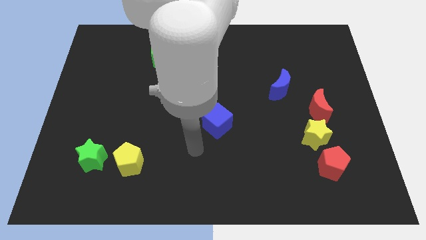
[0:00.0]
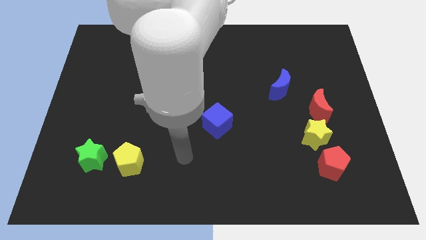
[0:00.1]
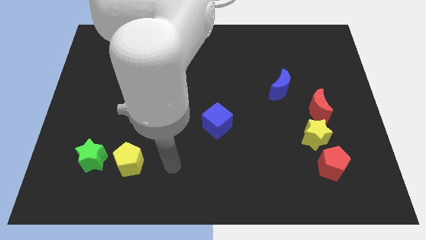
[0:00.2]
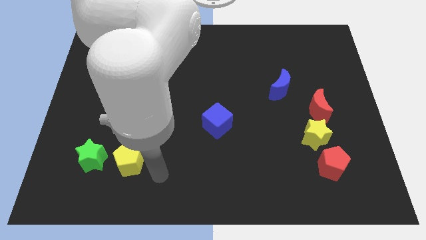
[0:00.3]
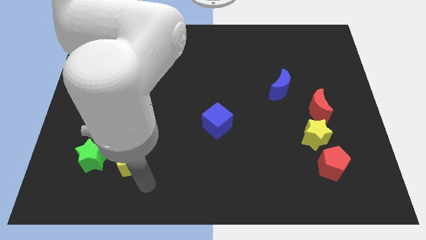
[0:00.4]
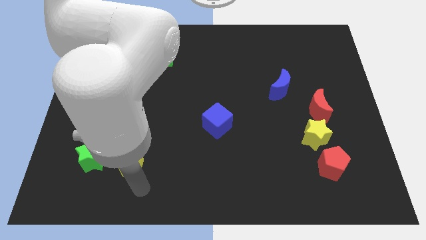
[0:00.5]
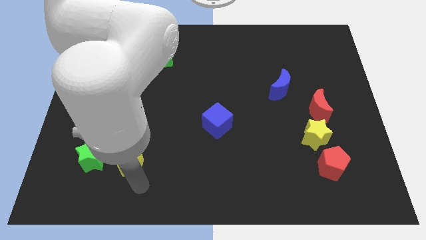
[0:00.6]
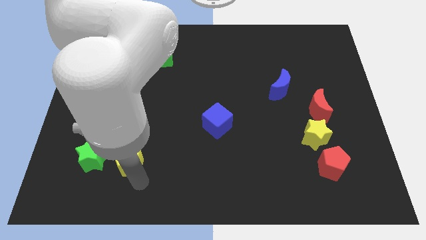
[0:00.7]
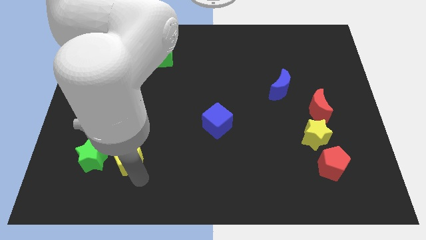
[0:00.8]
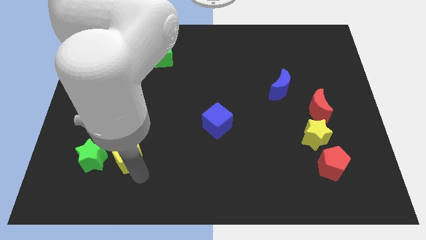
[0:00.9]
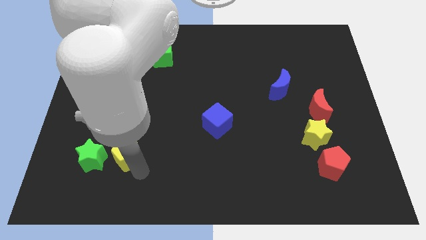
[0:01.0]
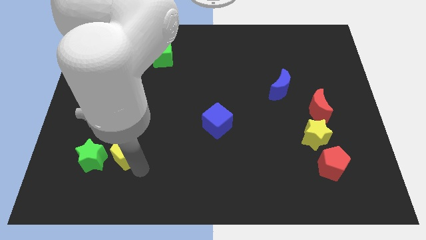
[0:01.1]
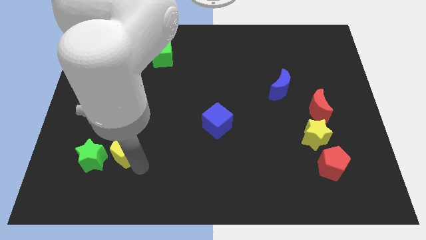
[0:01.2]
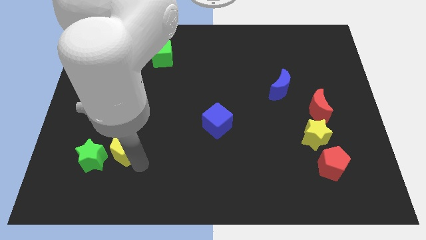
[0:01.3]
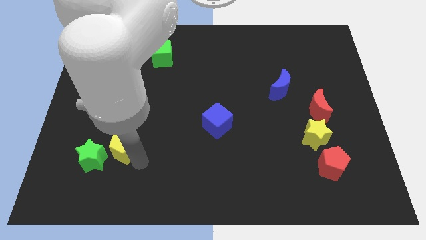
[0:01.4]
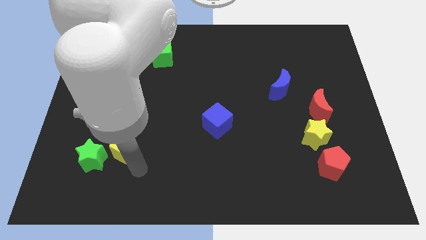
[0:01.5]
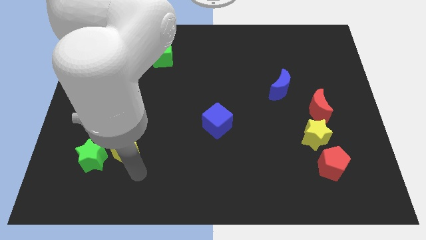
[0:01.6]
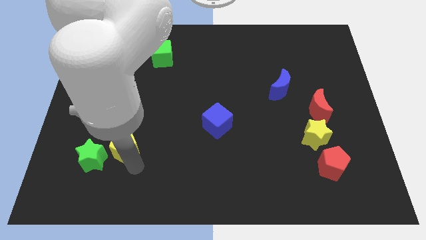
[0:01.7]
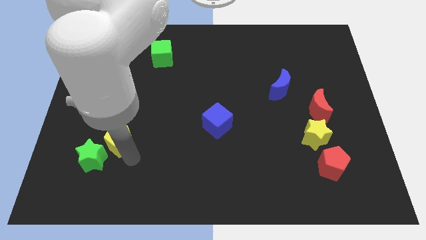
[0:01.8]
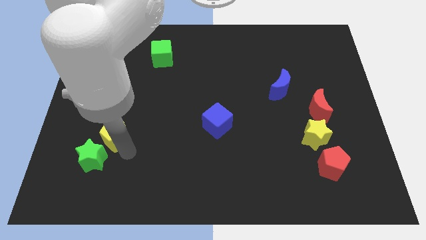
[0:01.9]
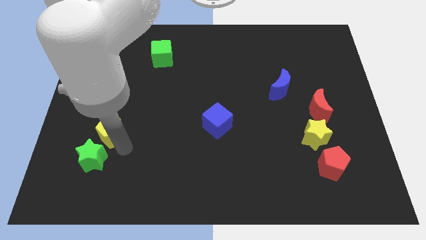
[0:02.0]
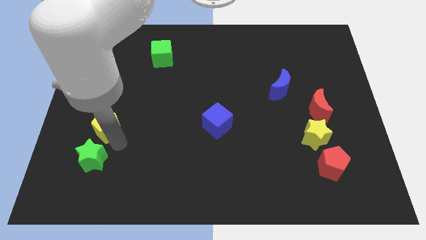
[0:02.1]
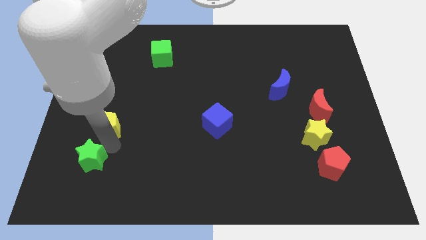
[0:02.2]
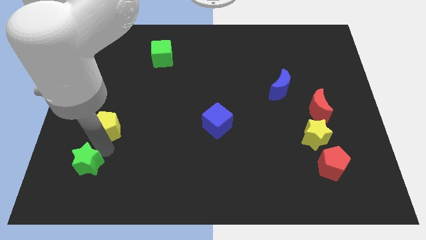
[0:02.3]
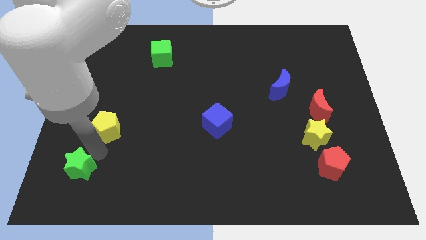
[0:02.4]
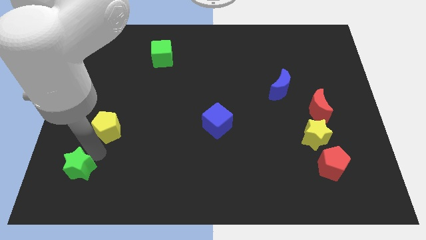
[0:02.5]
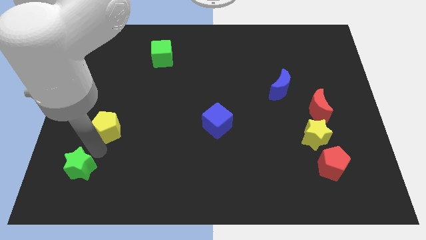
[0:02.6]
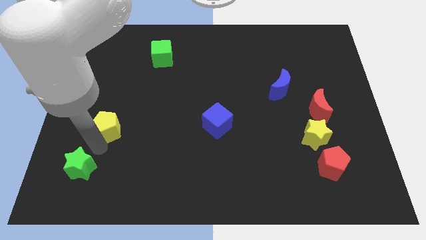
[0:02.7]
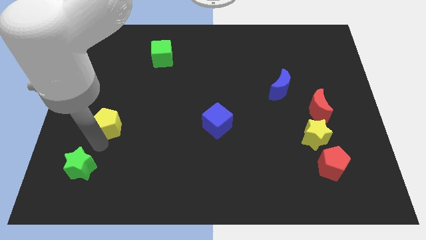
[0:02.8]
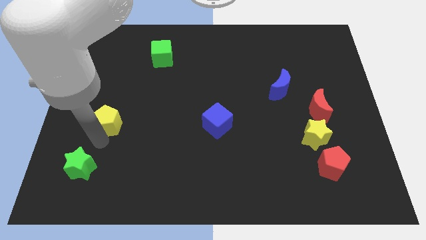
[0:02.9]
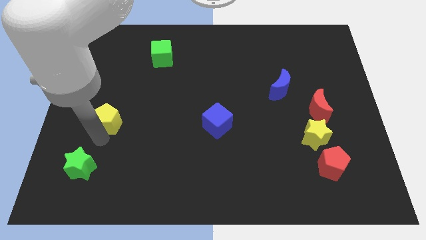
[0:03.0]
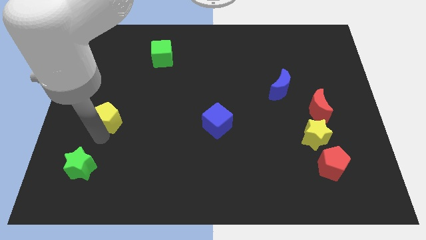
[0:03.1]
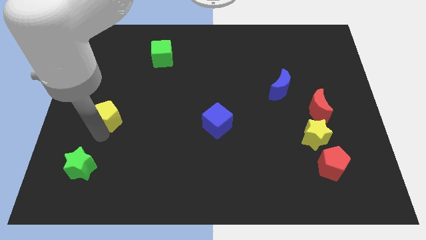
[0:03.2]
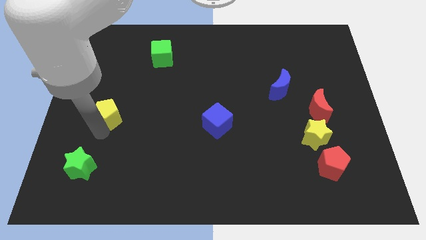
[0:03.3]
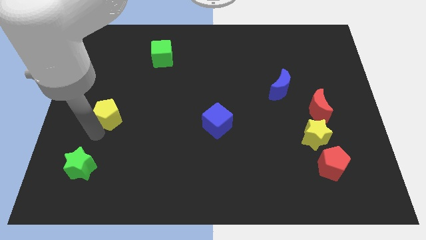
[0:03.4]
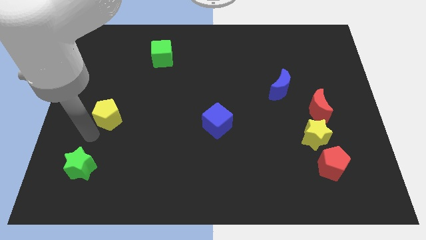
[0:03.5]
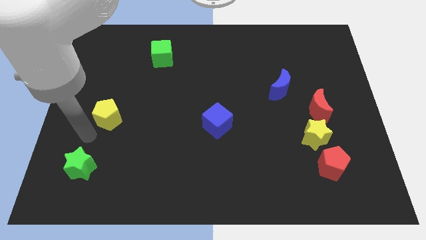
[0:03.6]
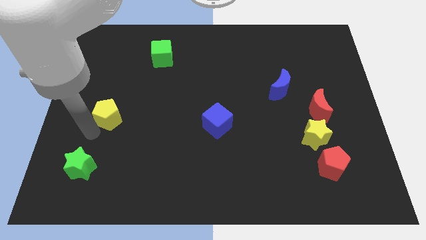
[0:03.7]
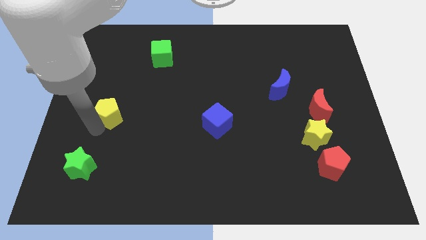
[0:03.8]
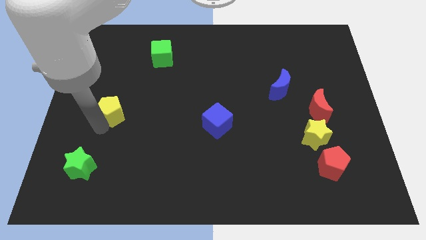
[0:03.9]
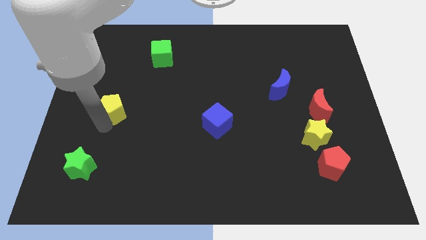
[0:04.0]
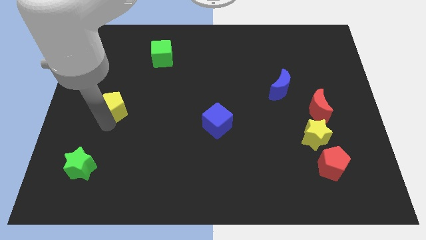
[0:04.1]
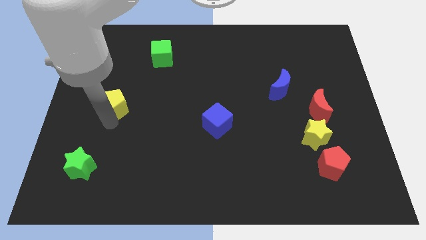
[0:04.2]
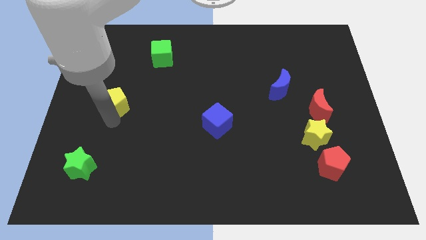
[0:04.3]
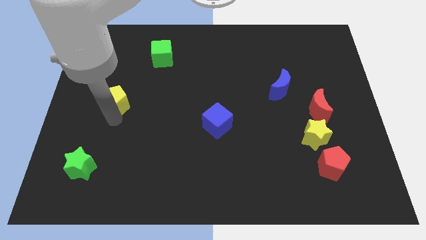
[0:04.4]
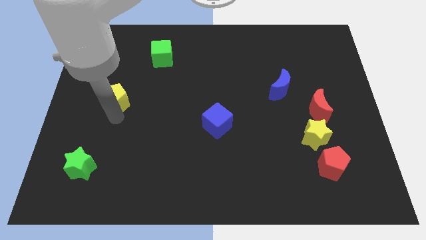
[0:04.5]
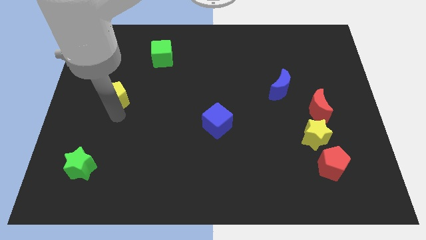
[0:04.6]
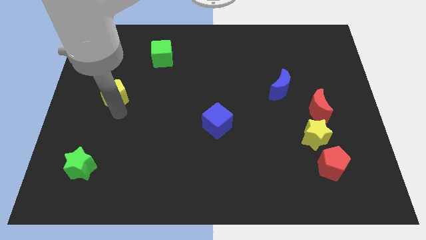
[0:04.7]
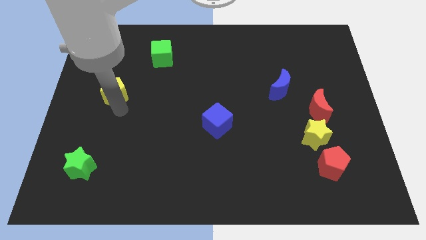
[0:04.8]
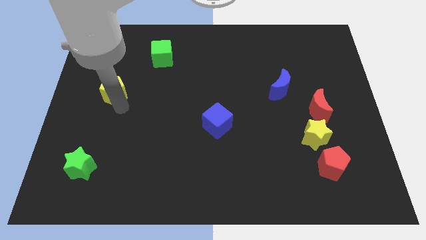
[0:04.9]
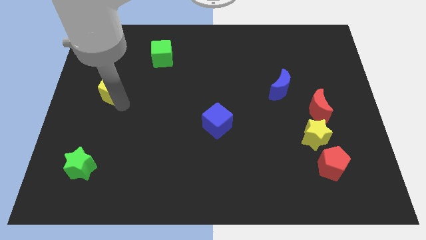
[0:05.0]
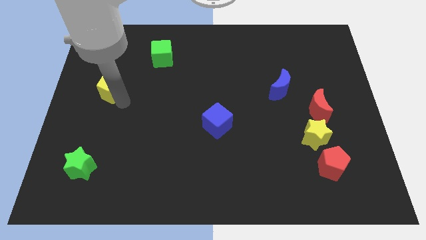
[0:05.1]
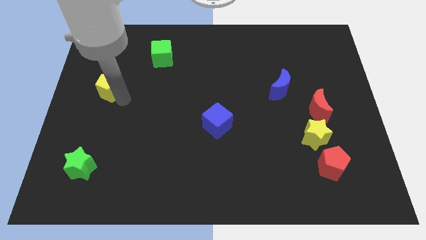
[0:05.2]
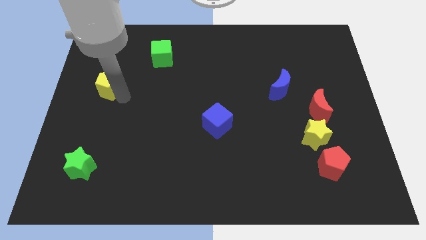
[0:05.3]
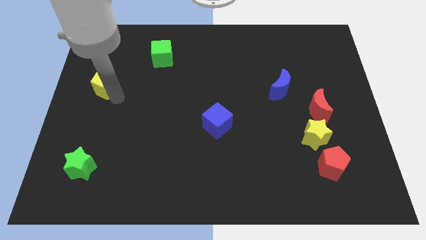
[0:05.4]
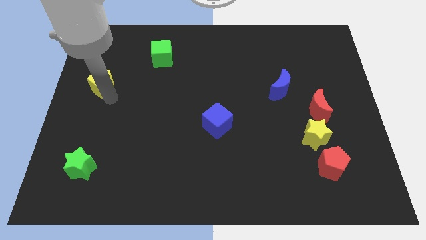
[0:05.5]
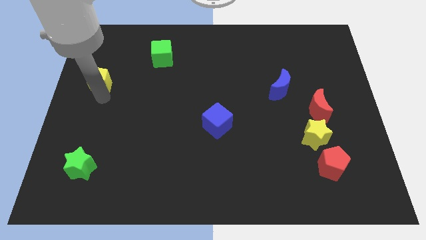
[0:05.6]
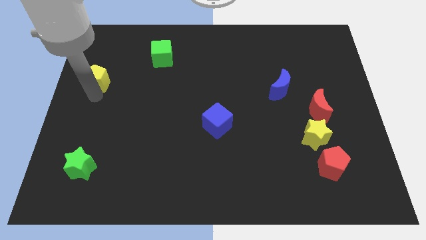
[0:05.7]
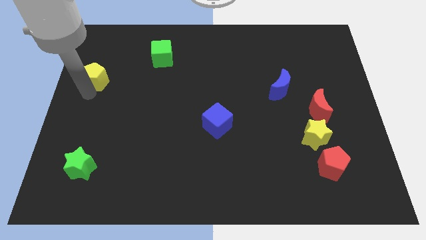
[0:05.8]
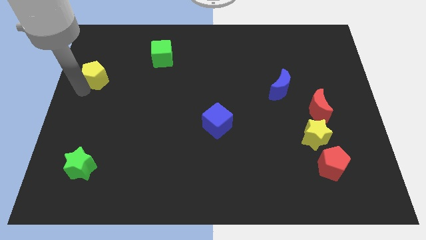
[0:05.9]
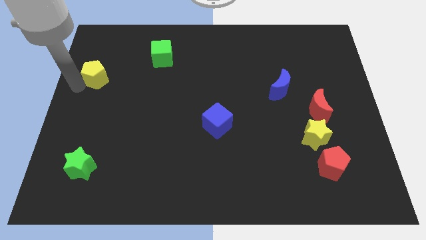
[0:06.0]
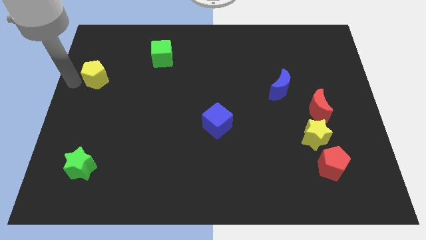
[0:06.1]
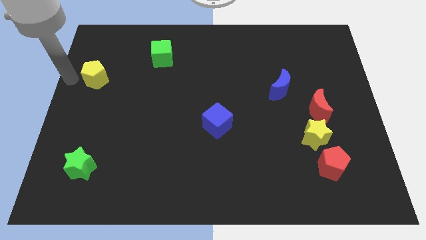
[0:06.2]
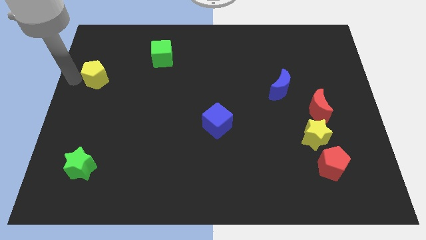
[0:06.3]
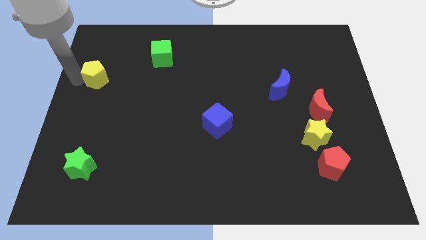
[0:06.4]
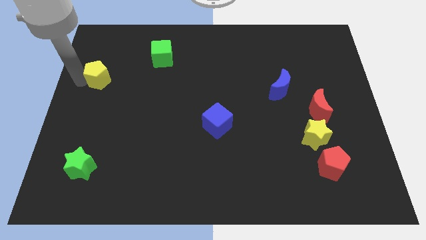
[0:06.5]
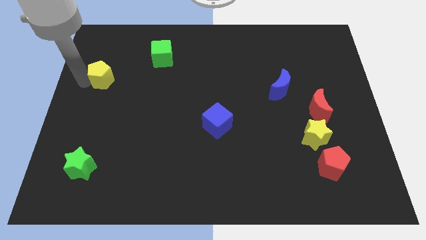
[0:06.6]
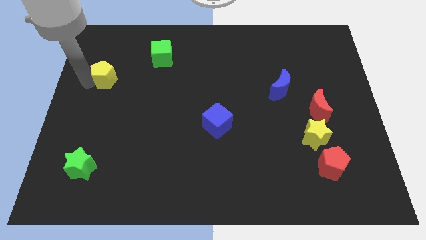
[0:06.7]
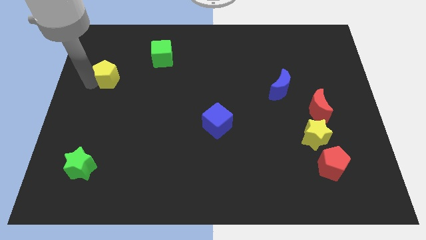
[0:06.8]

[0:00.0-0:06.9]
push the yellow pentagon upwards

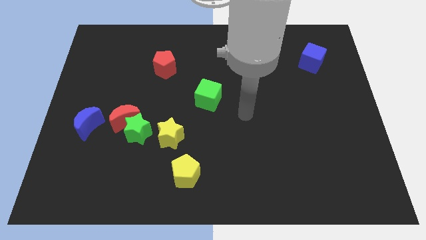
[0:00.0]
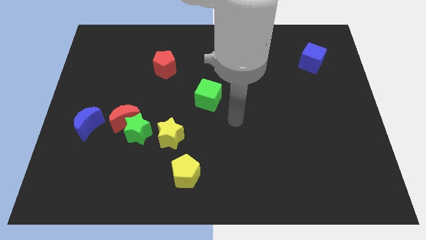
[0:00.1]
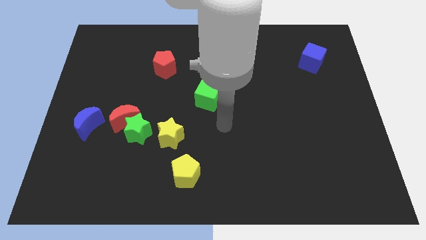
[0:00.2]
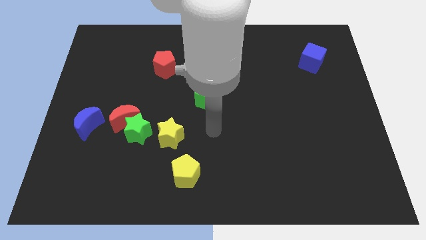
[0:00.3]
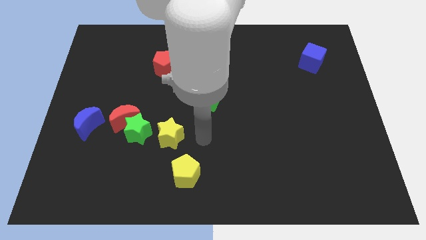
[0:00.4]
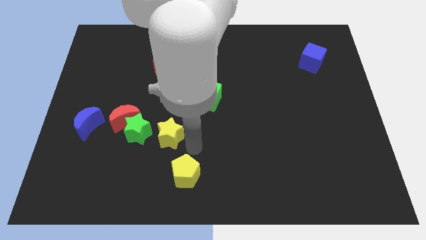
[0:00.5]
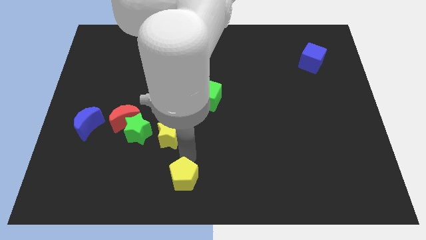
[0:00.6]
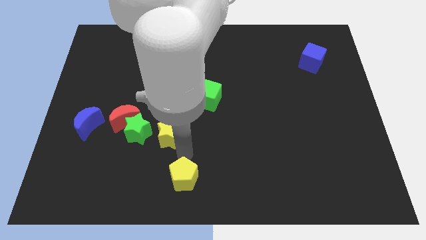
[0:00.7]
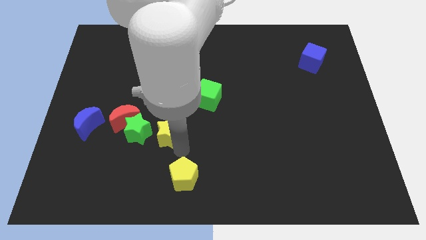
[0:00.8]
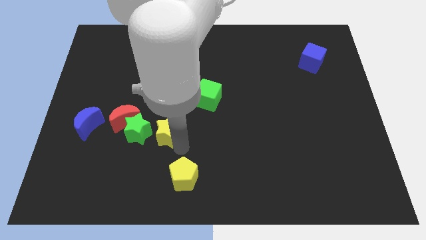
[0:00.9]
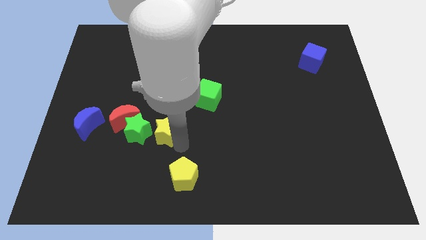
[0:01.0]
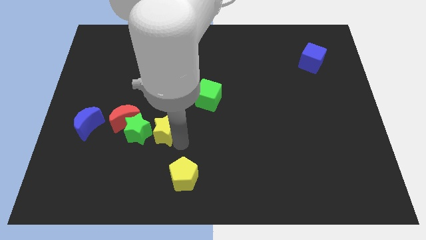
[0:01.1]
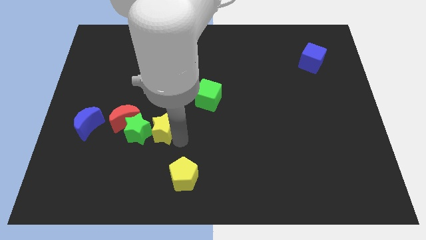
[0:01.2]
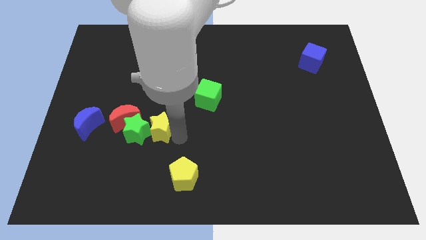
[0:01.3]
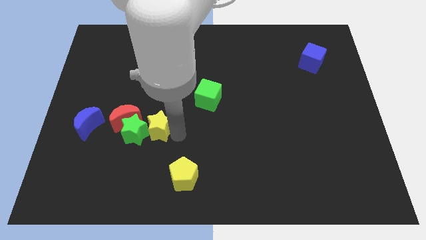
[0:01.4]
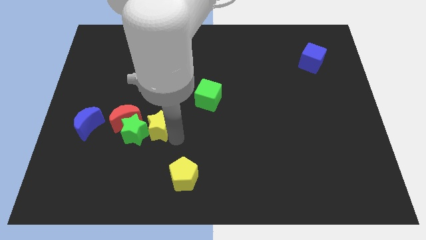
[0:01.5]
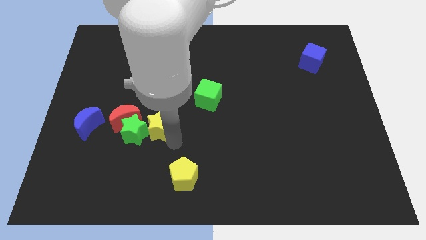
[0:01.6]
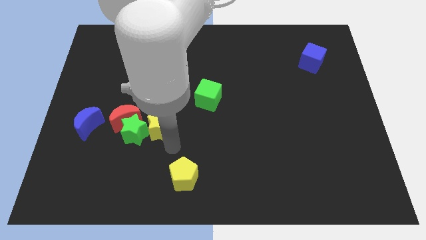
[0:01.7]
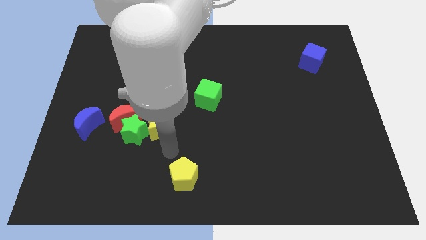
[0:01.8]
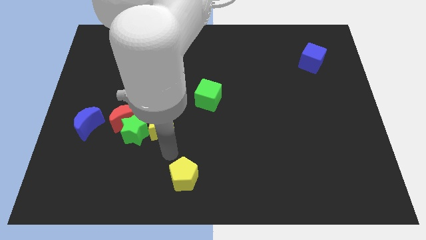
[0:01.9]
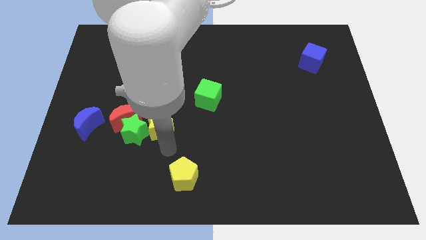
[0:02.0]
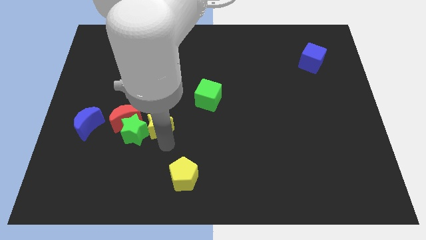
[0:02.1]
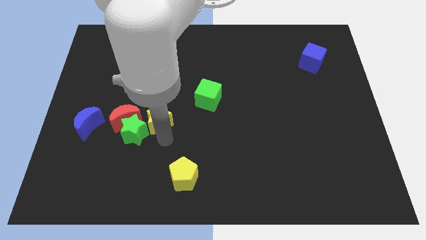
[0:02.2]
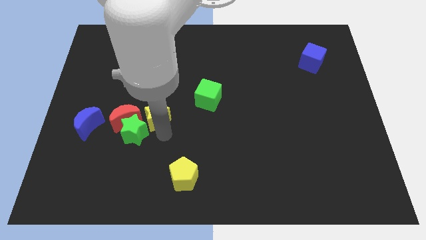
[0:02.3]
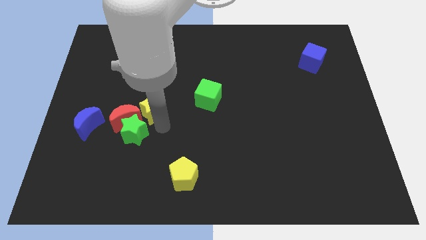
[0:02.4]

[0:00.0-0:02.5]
slightly push the yellow star up and left diagonally
